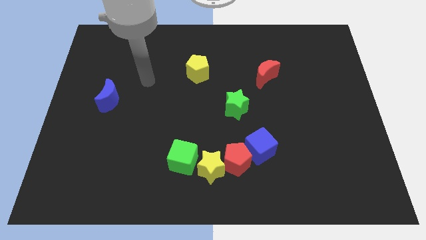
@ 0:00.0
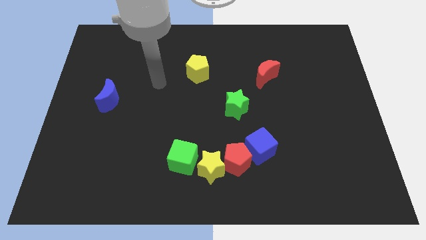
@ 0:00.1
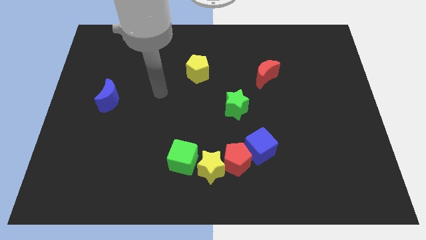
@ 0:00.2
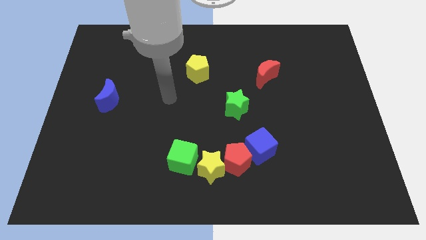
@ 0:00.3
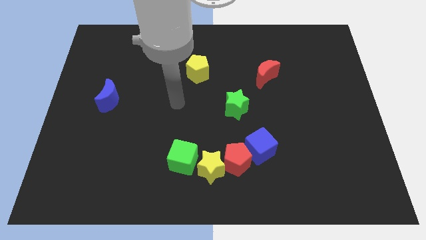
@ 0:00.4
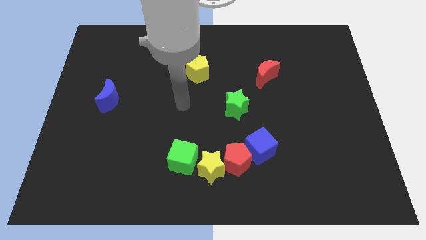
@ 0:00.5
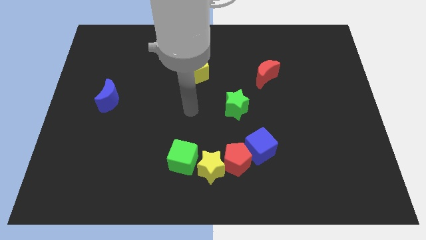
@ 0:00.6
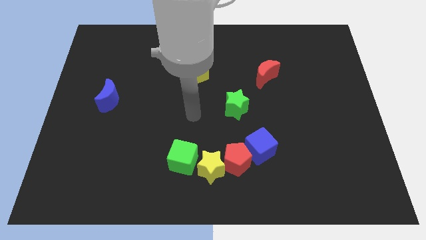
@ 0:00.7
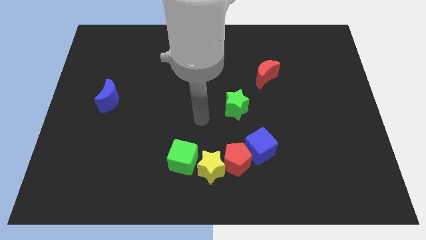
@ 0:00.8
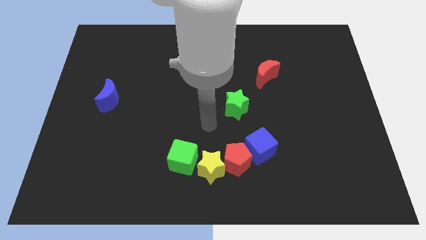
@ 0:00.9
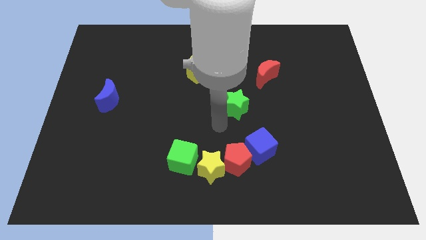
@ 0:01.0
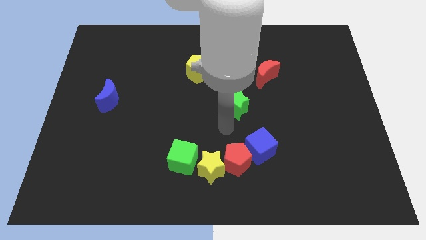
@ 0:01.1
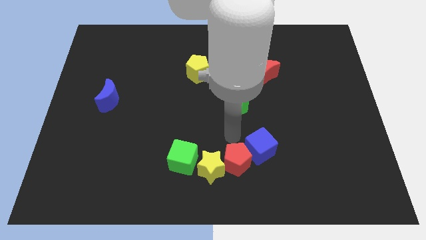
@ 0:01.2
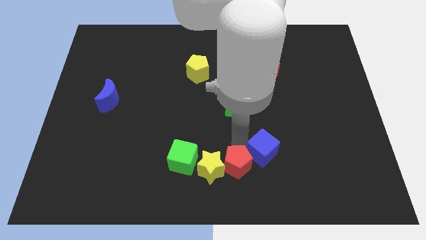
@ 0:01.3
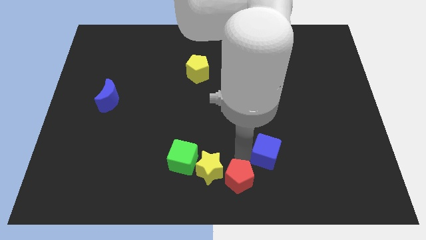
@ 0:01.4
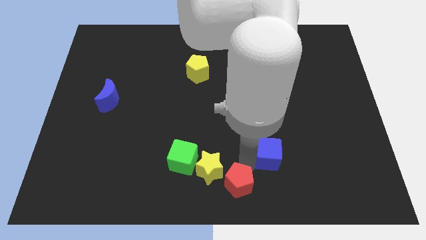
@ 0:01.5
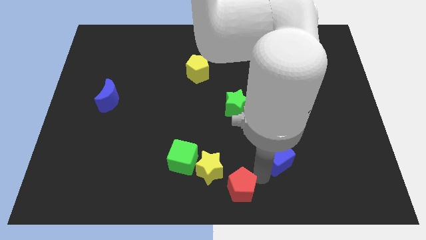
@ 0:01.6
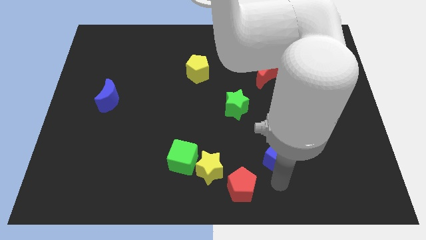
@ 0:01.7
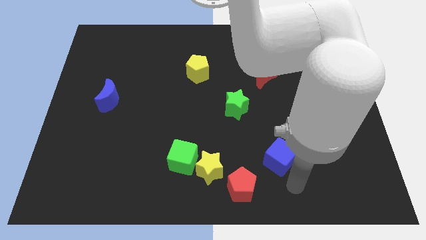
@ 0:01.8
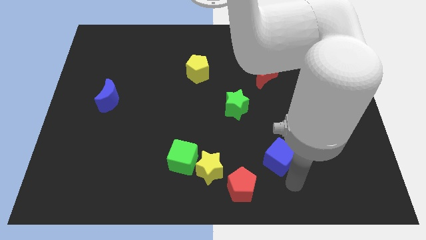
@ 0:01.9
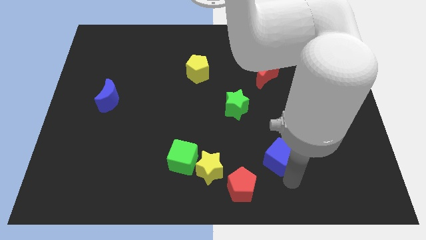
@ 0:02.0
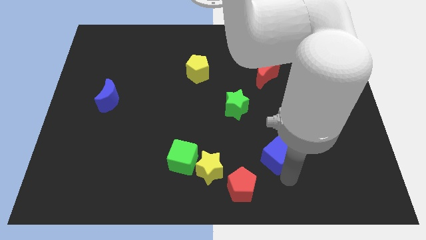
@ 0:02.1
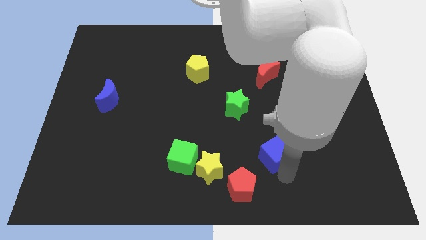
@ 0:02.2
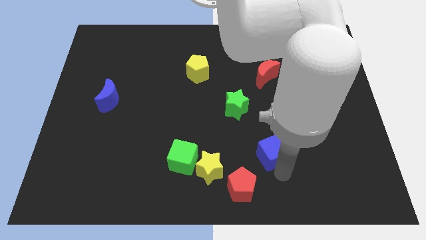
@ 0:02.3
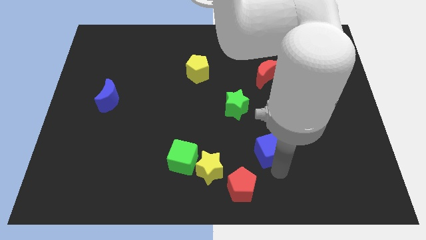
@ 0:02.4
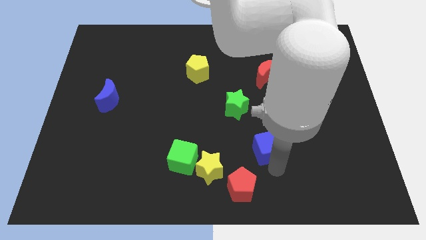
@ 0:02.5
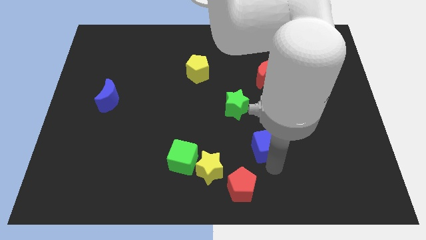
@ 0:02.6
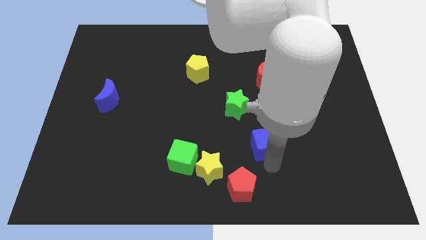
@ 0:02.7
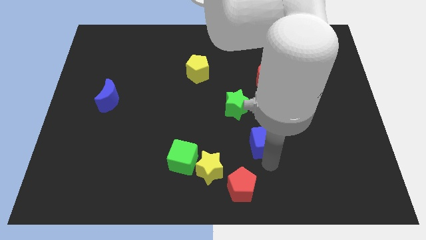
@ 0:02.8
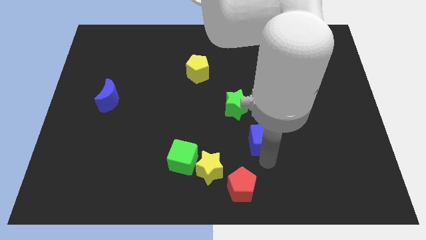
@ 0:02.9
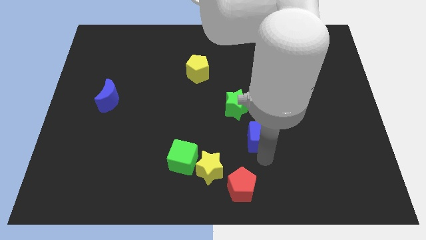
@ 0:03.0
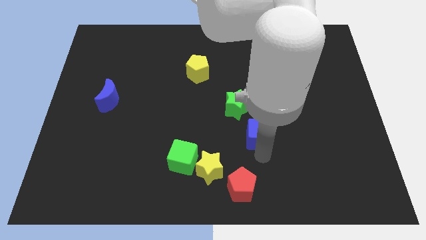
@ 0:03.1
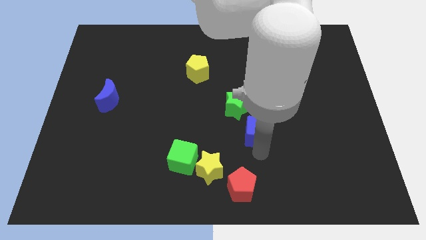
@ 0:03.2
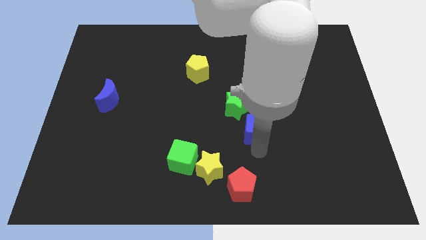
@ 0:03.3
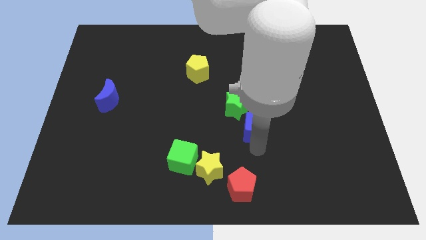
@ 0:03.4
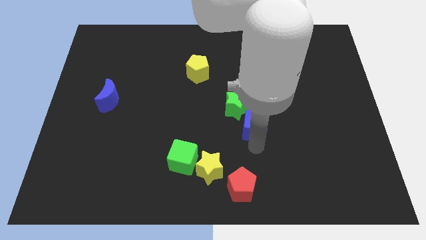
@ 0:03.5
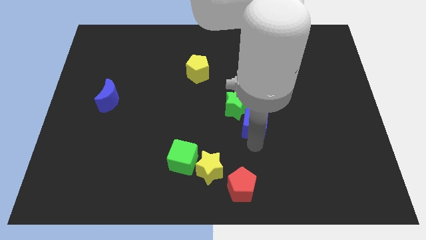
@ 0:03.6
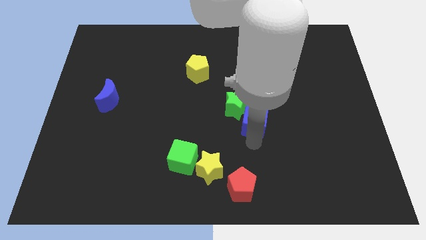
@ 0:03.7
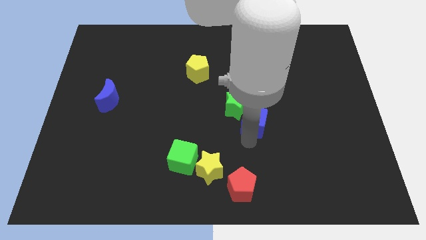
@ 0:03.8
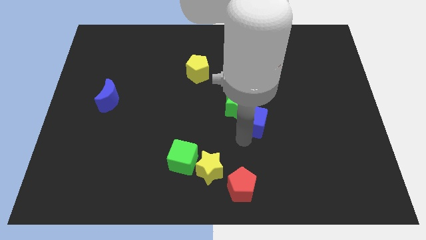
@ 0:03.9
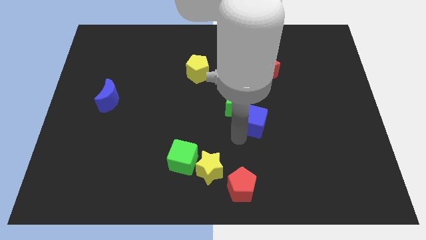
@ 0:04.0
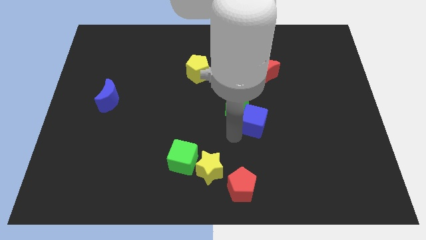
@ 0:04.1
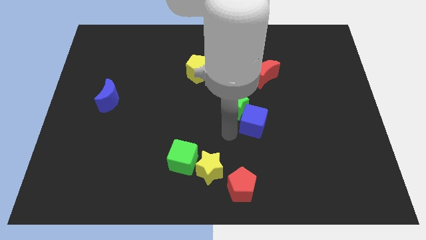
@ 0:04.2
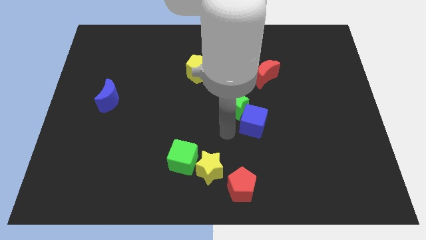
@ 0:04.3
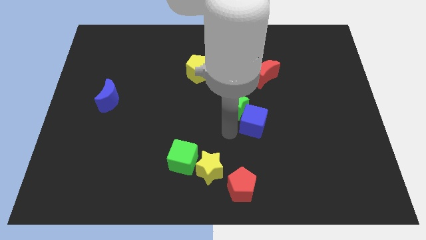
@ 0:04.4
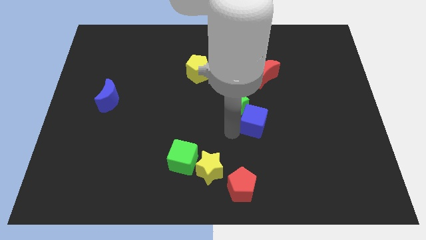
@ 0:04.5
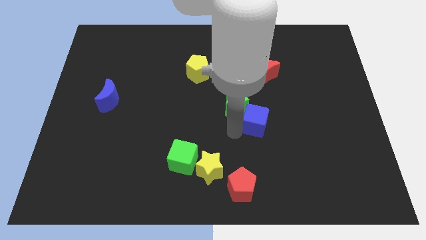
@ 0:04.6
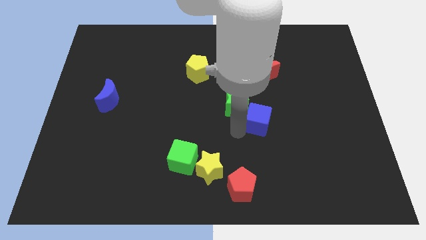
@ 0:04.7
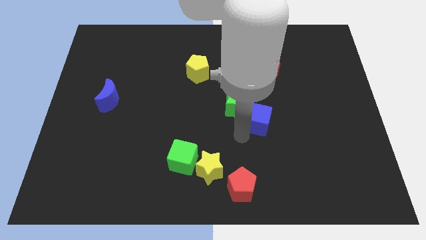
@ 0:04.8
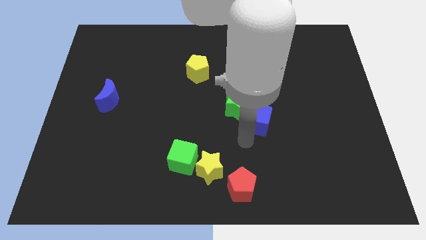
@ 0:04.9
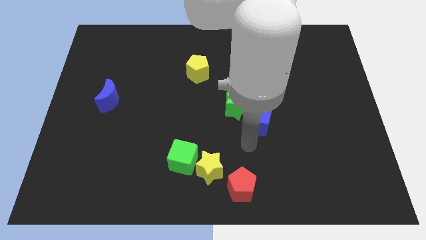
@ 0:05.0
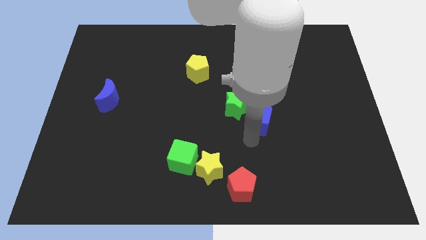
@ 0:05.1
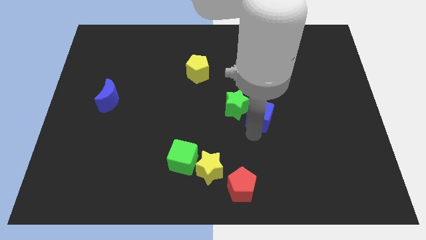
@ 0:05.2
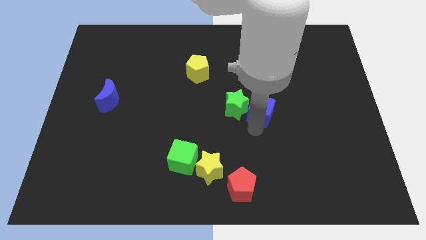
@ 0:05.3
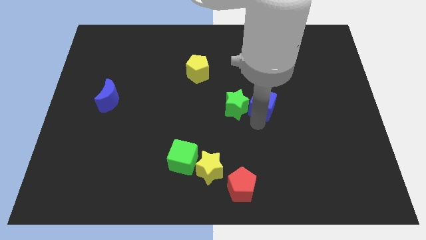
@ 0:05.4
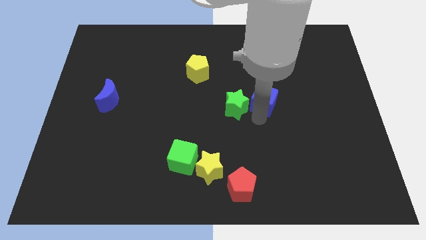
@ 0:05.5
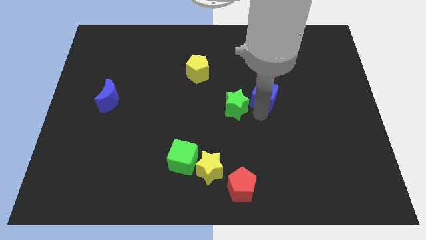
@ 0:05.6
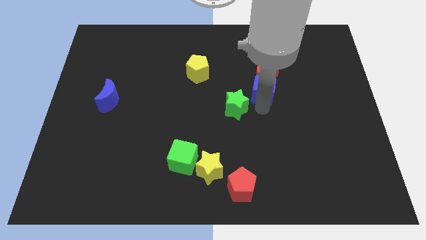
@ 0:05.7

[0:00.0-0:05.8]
move the blue cube towards the red moon

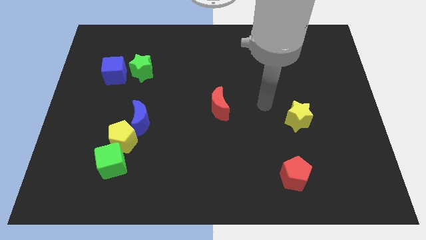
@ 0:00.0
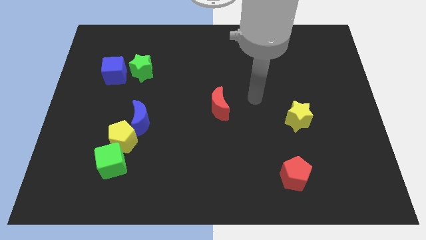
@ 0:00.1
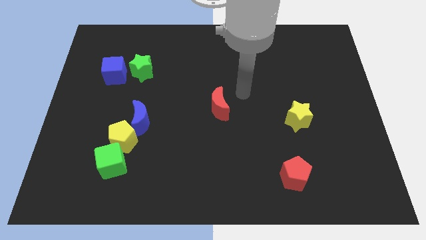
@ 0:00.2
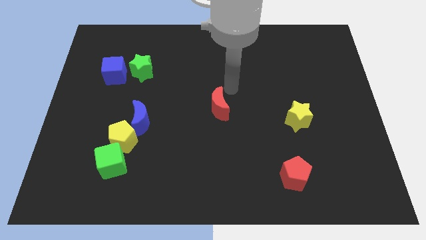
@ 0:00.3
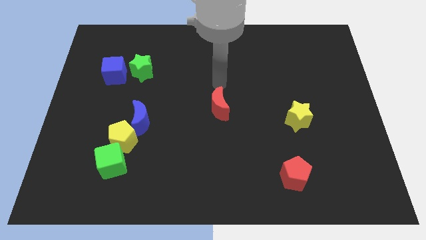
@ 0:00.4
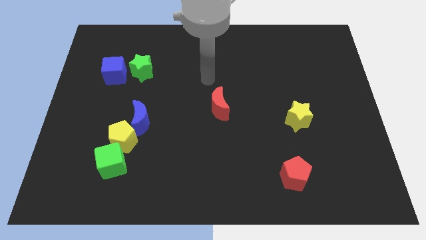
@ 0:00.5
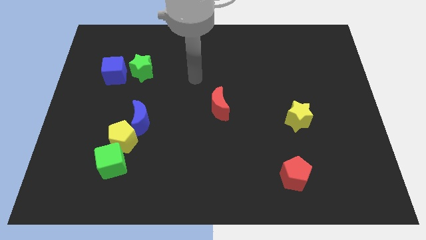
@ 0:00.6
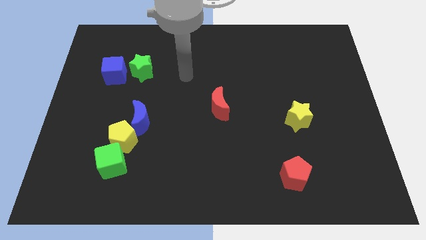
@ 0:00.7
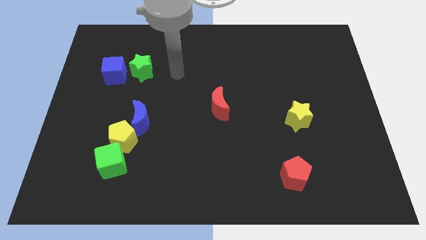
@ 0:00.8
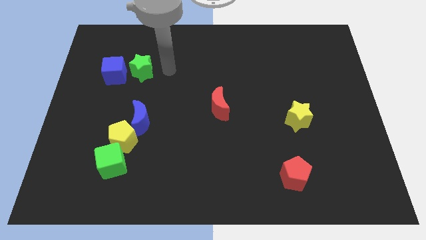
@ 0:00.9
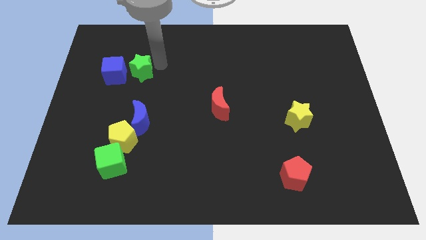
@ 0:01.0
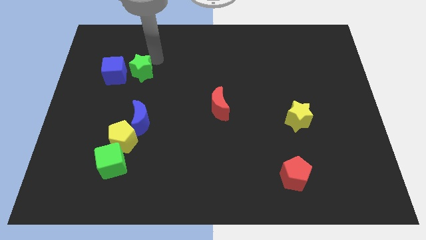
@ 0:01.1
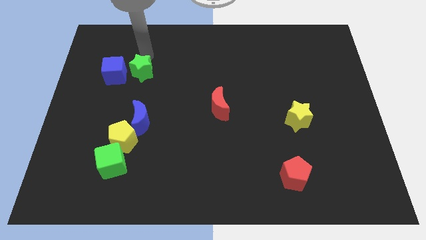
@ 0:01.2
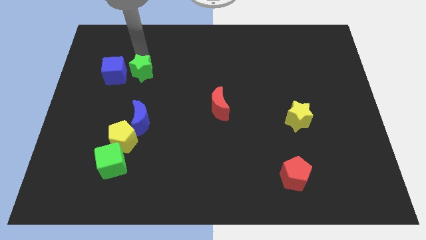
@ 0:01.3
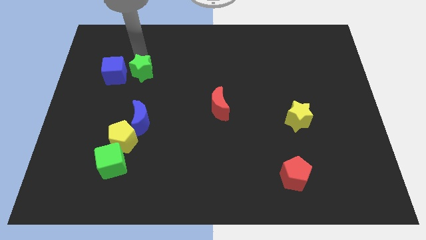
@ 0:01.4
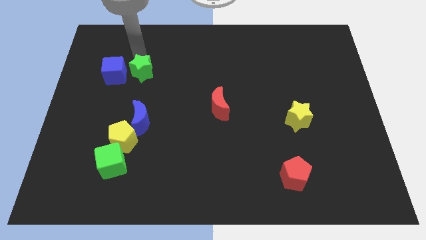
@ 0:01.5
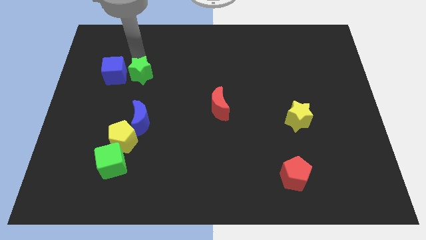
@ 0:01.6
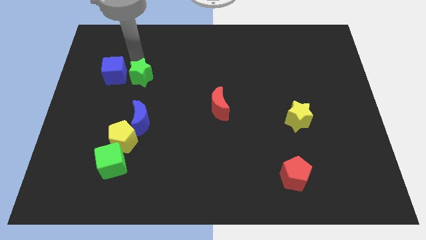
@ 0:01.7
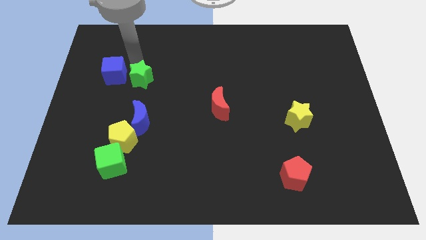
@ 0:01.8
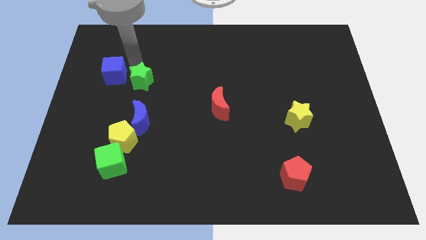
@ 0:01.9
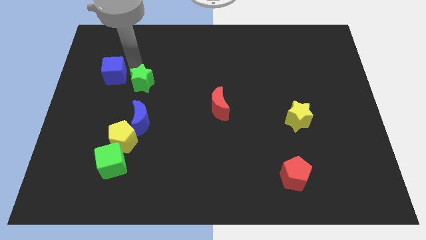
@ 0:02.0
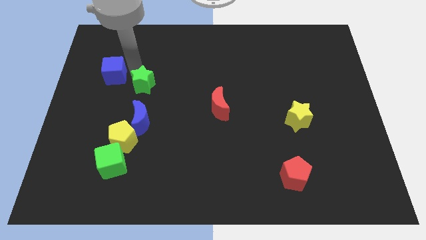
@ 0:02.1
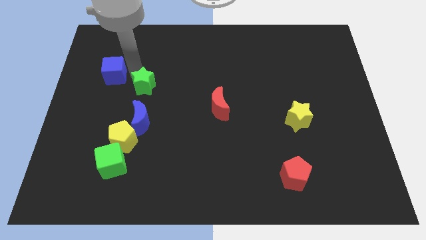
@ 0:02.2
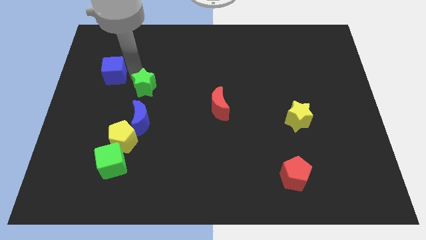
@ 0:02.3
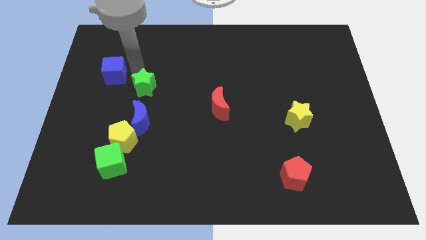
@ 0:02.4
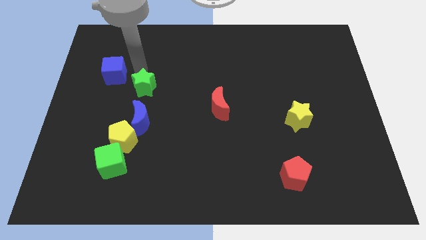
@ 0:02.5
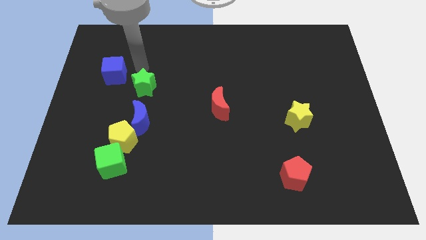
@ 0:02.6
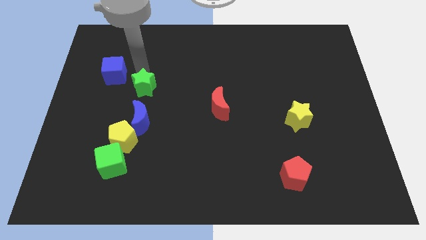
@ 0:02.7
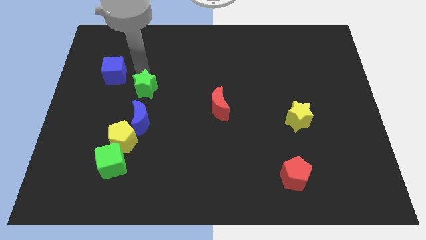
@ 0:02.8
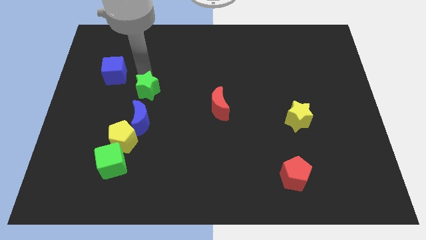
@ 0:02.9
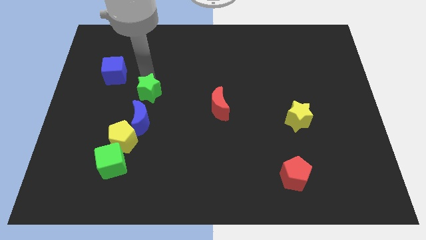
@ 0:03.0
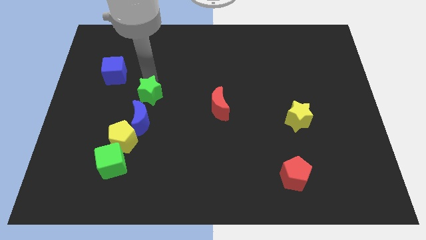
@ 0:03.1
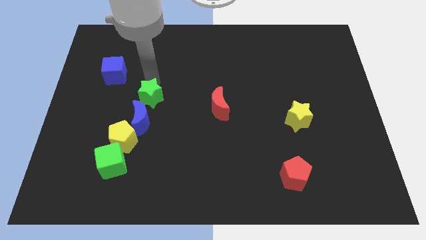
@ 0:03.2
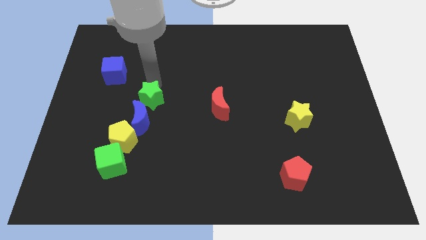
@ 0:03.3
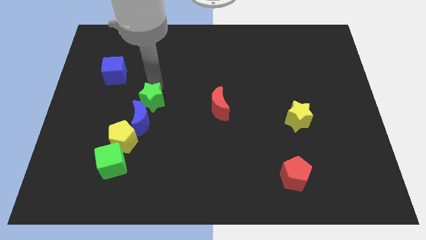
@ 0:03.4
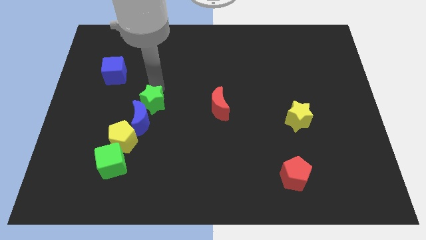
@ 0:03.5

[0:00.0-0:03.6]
push the green star close to the blue moon
